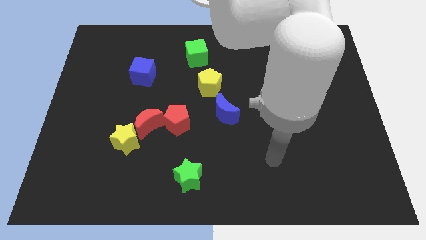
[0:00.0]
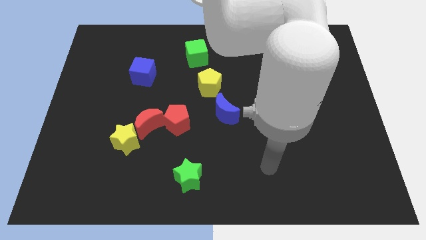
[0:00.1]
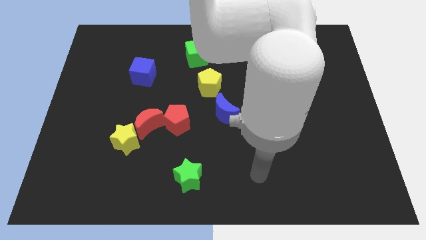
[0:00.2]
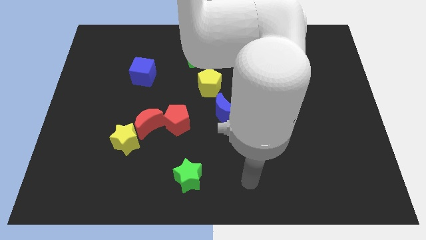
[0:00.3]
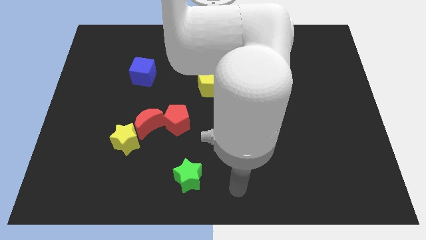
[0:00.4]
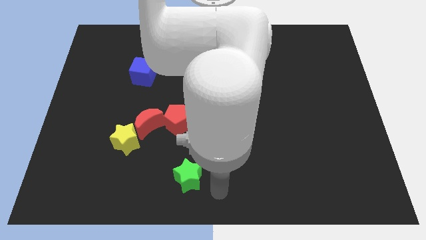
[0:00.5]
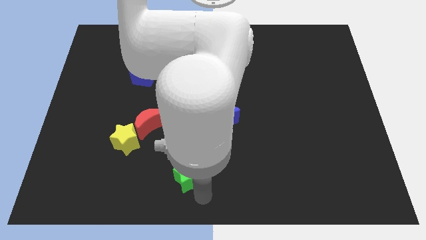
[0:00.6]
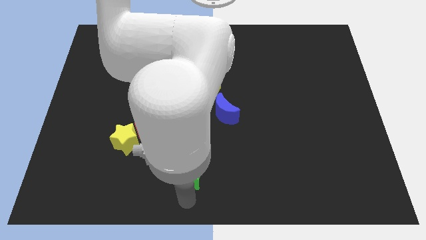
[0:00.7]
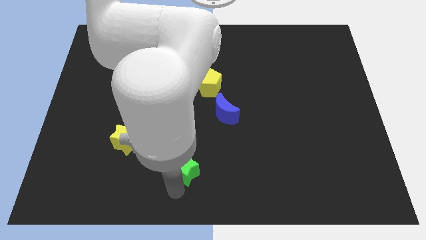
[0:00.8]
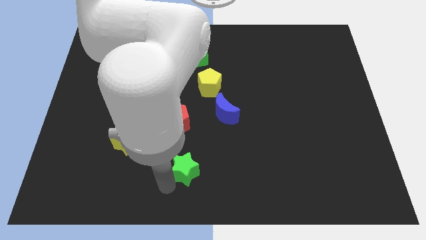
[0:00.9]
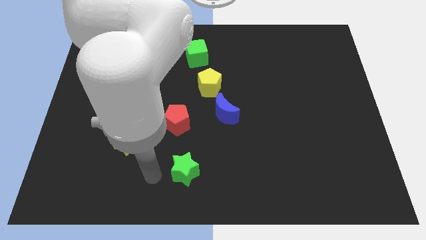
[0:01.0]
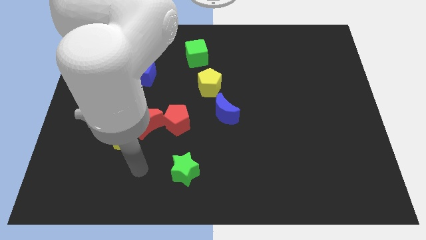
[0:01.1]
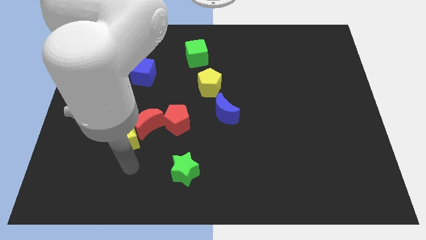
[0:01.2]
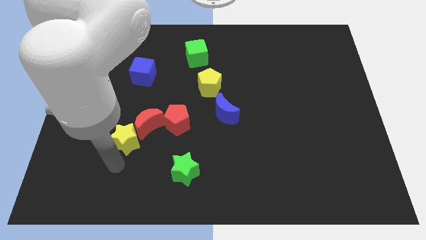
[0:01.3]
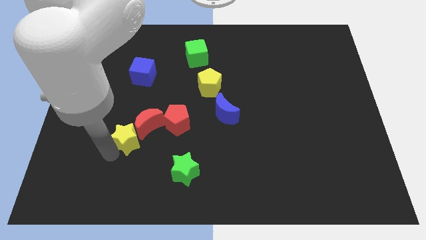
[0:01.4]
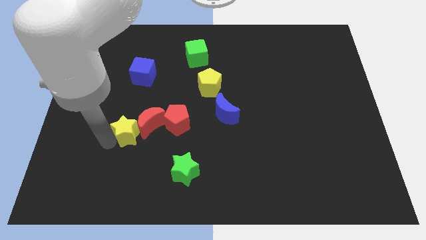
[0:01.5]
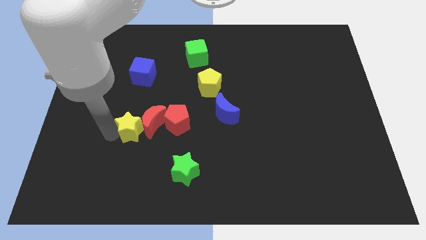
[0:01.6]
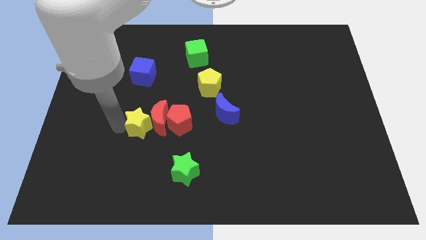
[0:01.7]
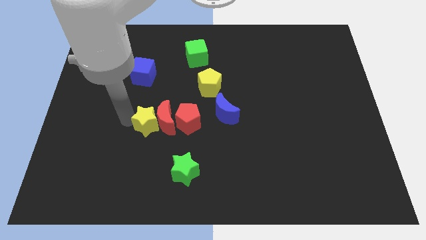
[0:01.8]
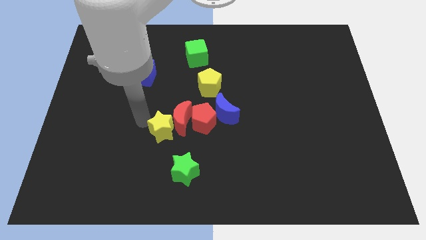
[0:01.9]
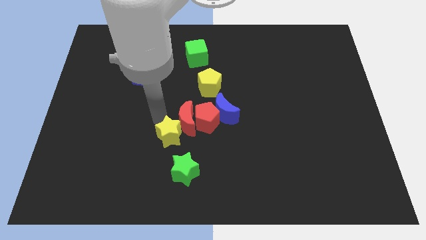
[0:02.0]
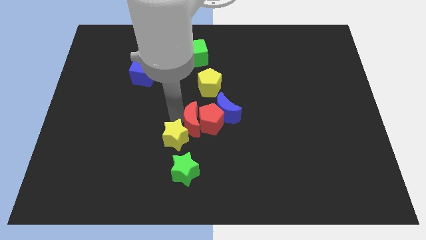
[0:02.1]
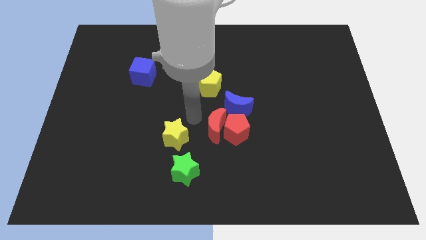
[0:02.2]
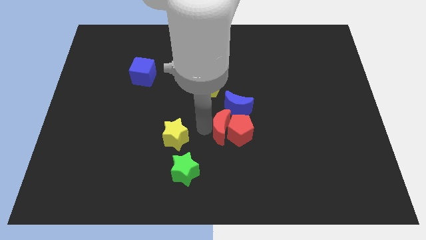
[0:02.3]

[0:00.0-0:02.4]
move the yellow star away from the red moon

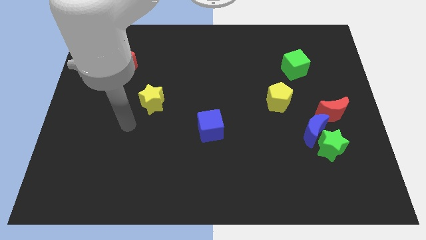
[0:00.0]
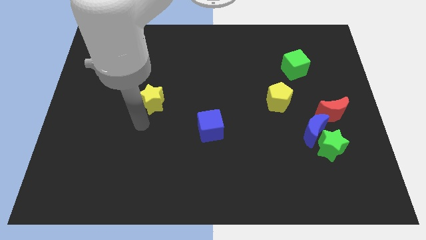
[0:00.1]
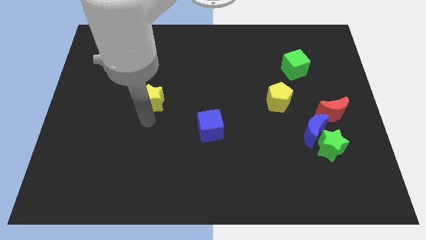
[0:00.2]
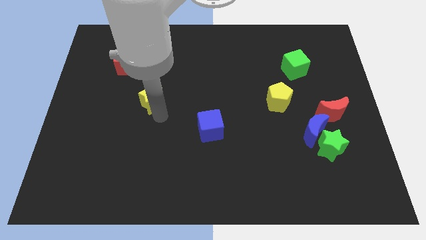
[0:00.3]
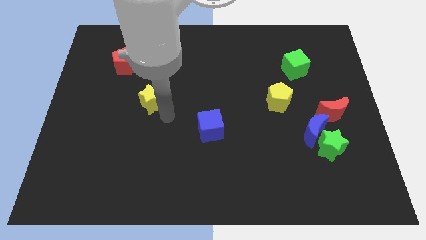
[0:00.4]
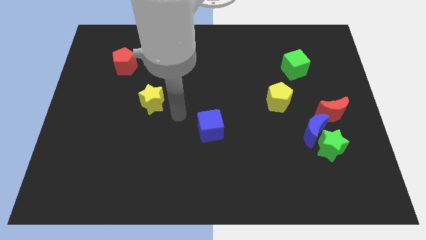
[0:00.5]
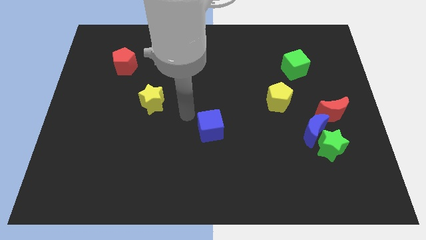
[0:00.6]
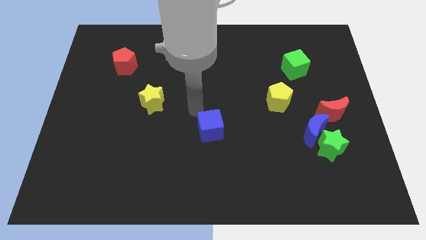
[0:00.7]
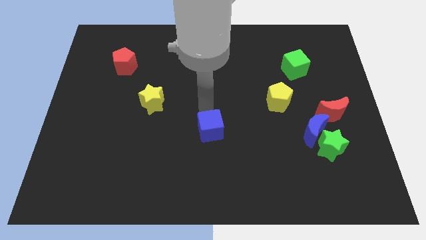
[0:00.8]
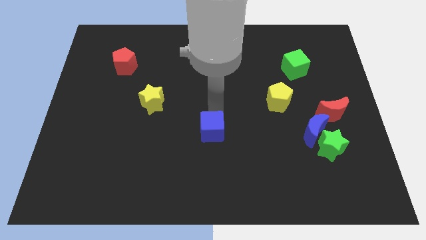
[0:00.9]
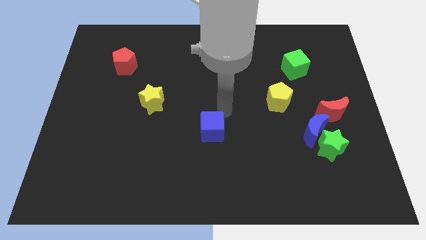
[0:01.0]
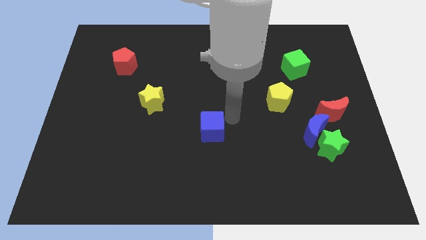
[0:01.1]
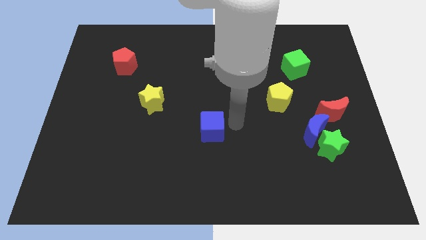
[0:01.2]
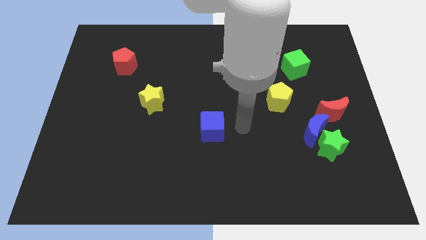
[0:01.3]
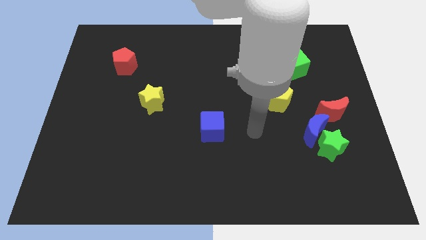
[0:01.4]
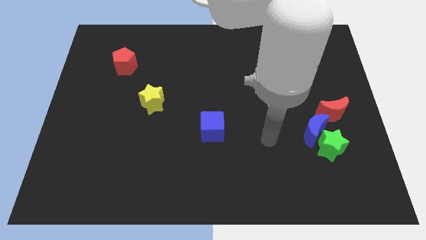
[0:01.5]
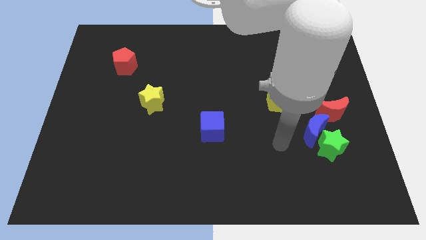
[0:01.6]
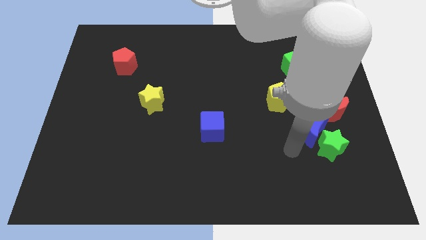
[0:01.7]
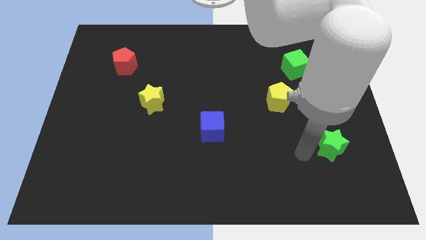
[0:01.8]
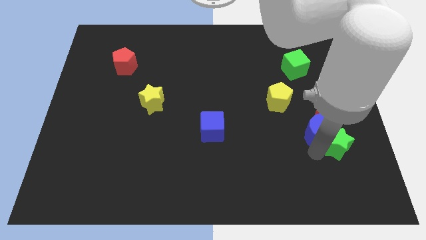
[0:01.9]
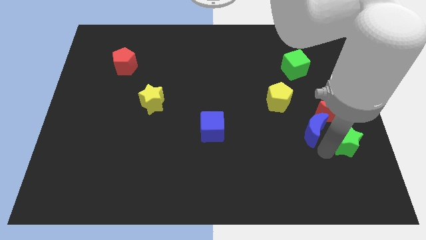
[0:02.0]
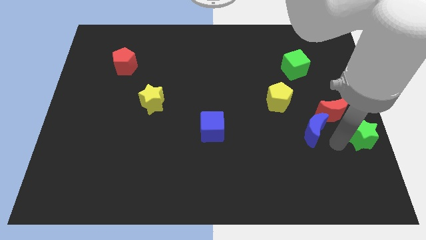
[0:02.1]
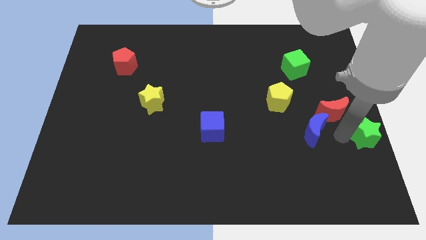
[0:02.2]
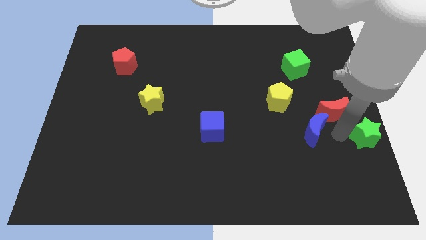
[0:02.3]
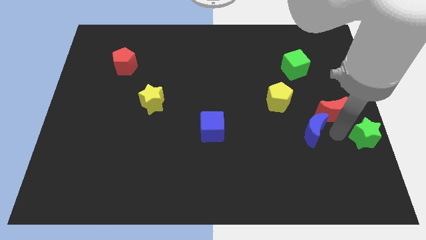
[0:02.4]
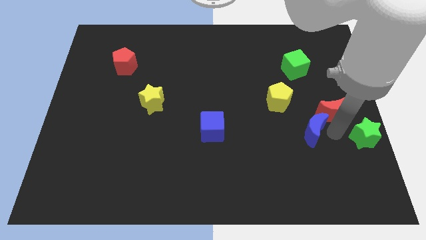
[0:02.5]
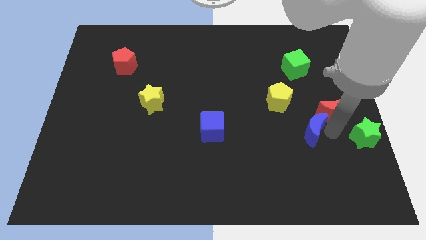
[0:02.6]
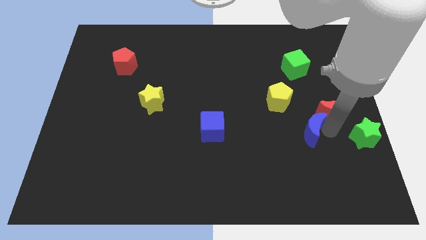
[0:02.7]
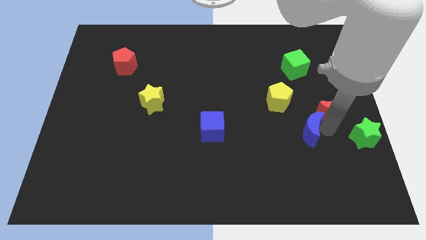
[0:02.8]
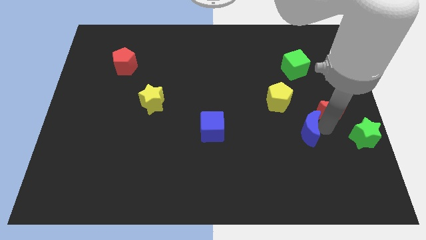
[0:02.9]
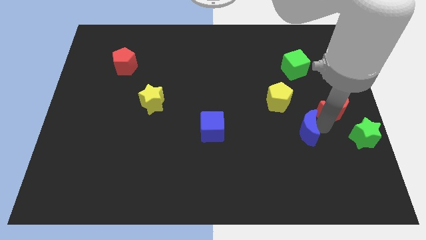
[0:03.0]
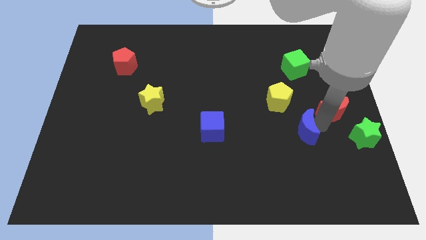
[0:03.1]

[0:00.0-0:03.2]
move the blue moon away from the green star and red moon

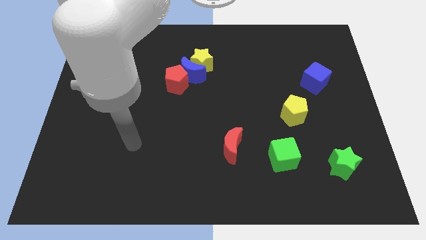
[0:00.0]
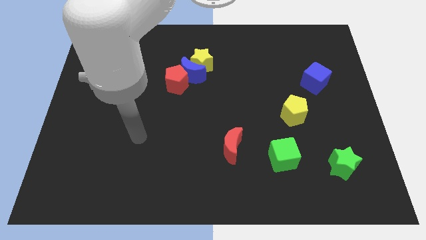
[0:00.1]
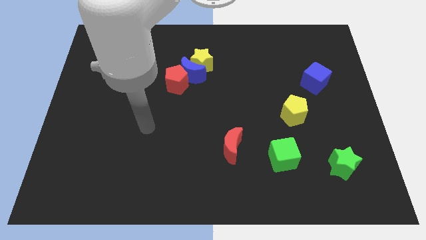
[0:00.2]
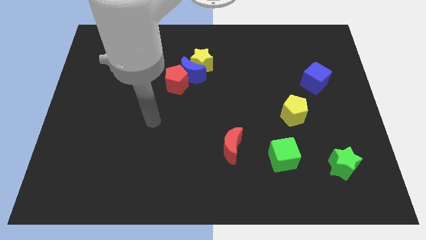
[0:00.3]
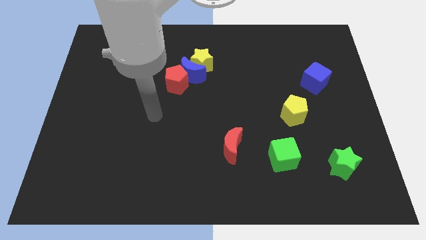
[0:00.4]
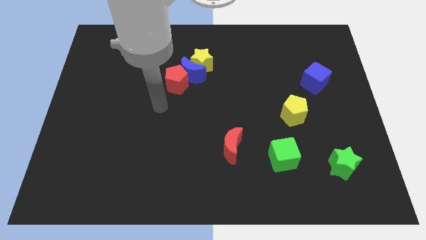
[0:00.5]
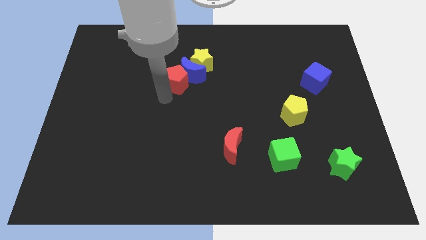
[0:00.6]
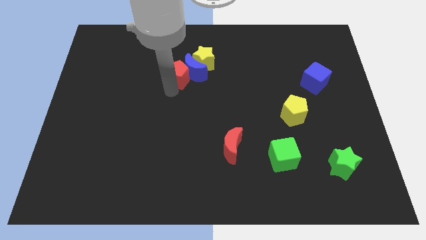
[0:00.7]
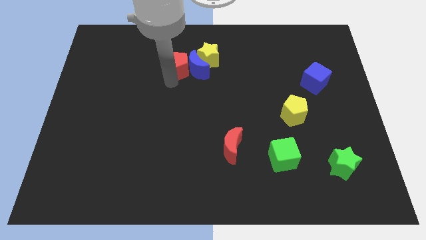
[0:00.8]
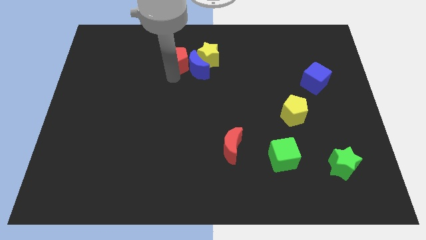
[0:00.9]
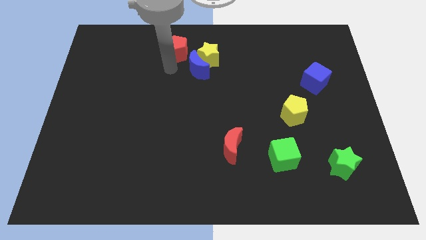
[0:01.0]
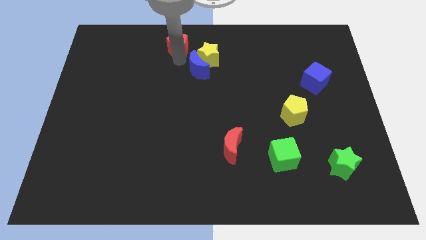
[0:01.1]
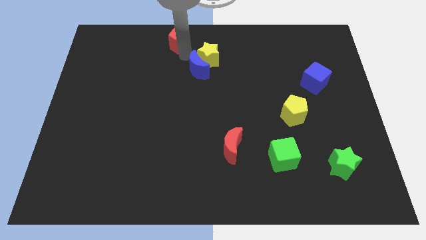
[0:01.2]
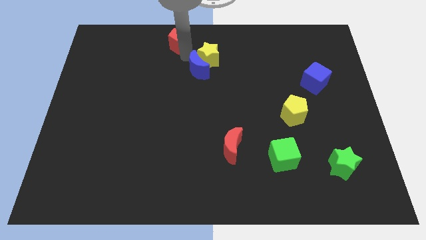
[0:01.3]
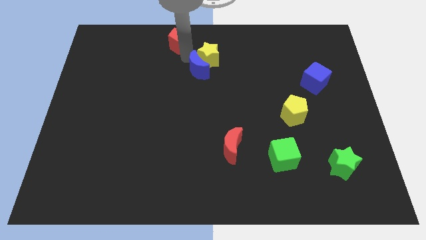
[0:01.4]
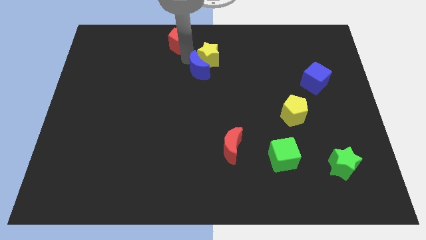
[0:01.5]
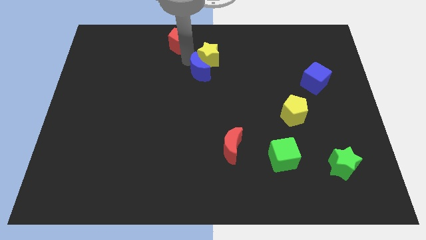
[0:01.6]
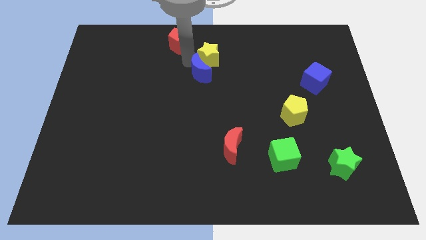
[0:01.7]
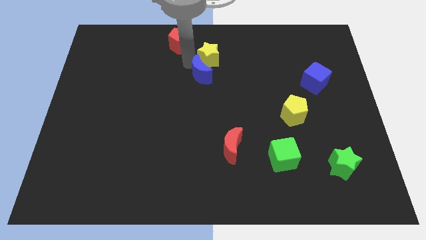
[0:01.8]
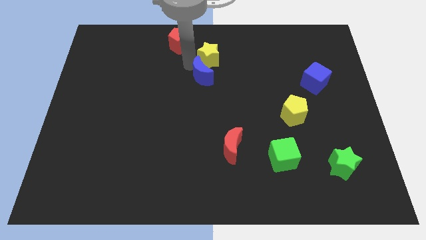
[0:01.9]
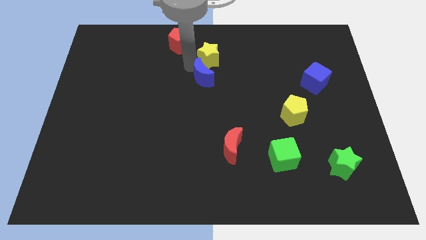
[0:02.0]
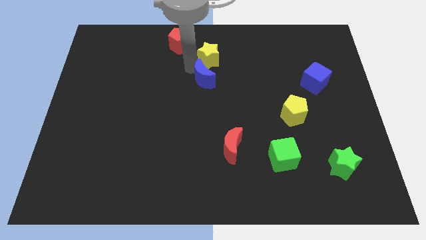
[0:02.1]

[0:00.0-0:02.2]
separate the blue moon from the yellow star and red pentagon

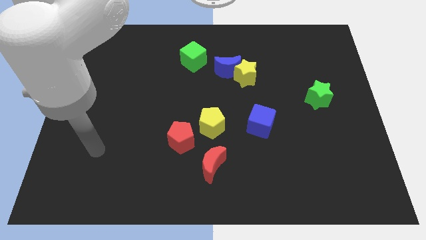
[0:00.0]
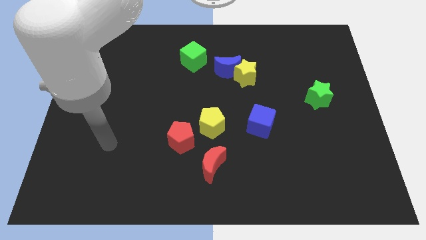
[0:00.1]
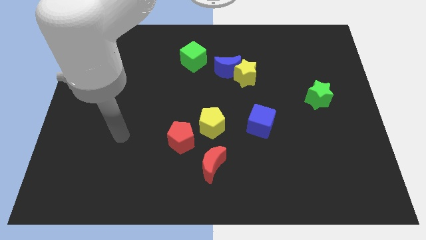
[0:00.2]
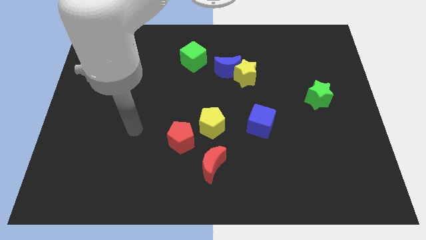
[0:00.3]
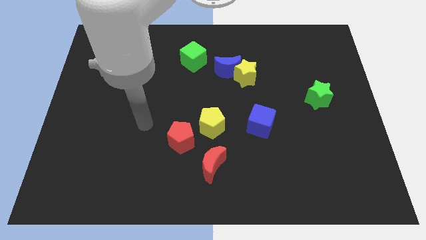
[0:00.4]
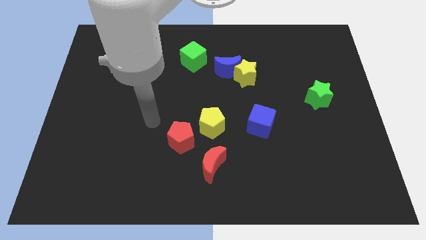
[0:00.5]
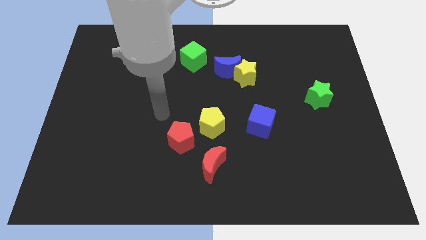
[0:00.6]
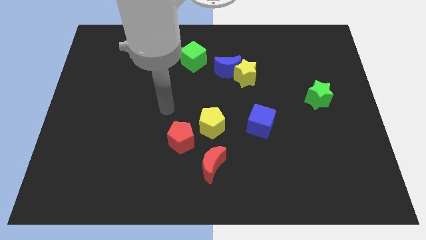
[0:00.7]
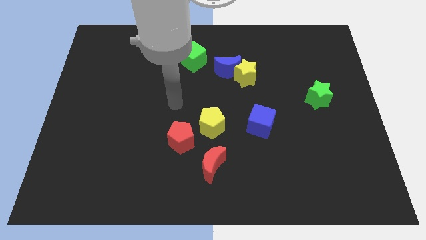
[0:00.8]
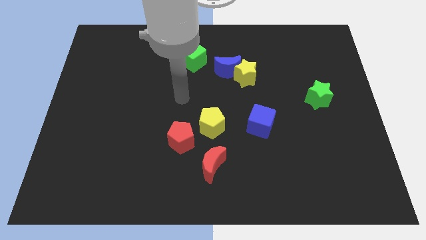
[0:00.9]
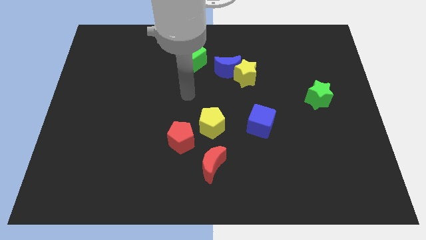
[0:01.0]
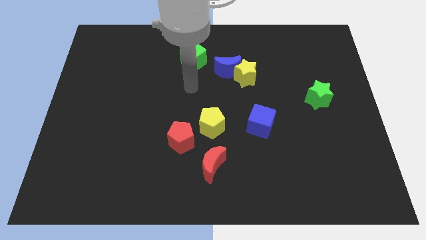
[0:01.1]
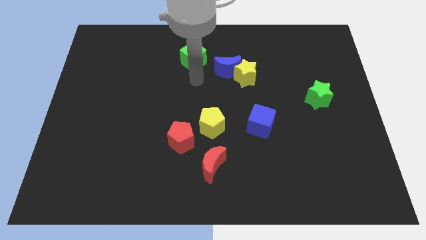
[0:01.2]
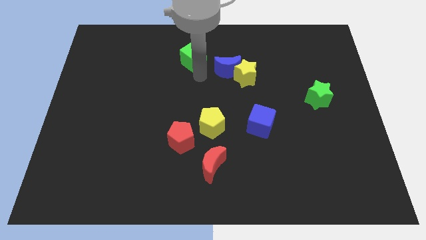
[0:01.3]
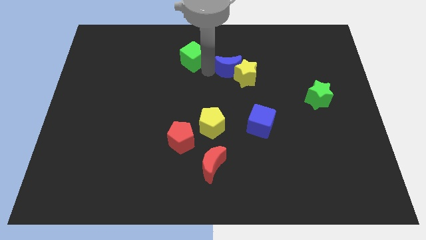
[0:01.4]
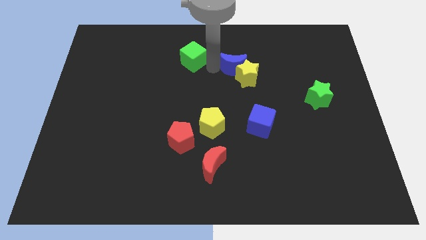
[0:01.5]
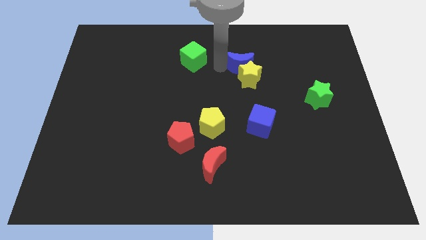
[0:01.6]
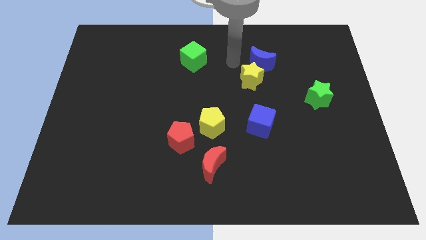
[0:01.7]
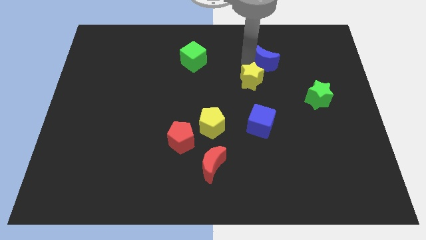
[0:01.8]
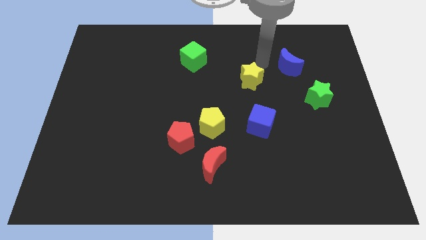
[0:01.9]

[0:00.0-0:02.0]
move the yellow star away from the blue moon
